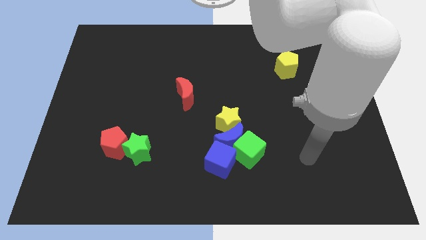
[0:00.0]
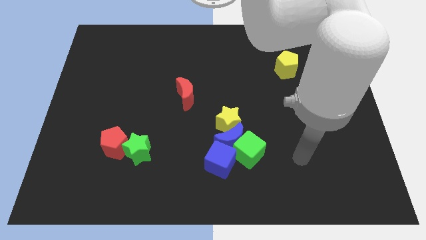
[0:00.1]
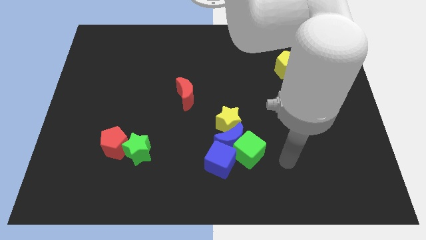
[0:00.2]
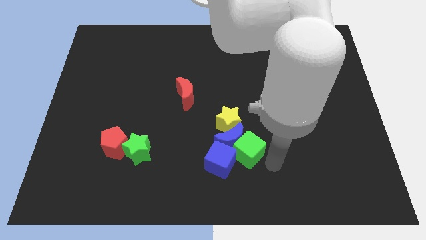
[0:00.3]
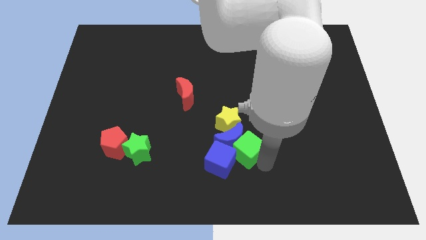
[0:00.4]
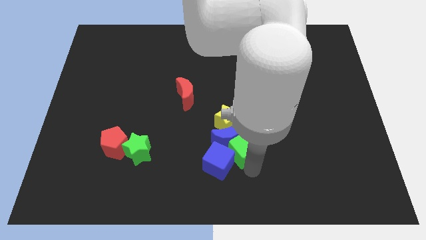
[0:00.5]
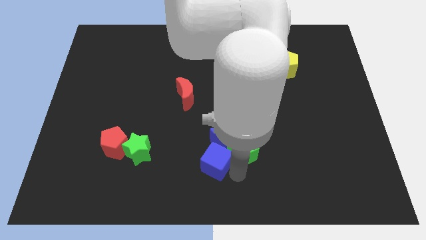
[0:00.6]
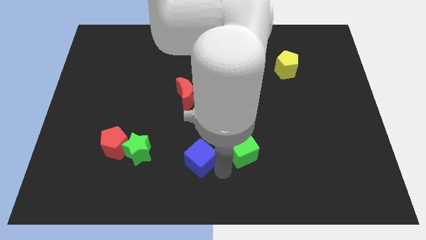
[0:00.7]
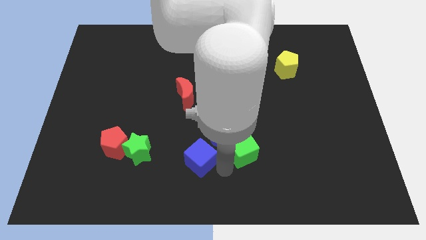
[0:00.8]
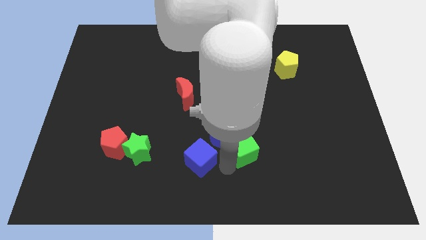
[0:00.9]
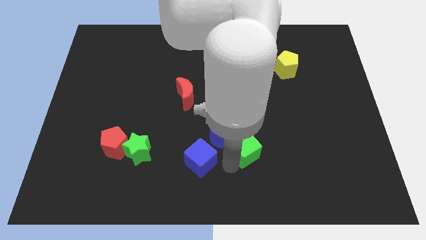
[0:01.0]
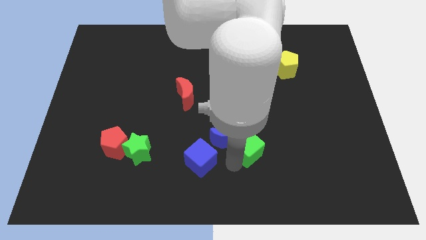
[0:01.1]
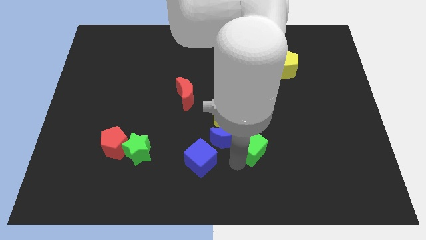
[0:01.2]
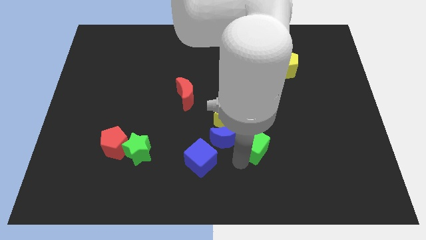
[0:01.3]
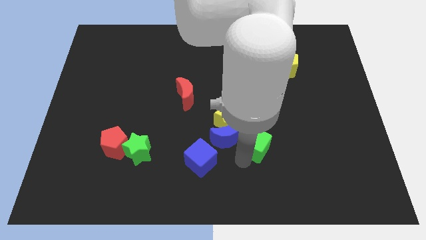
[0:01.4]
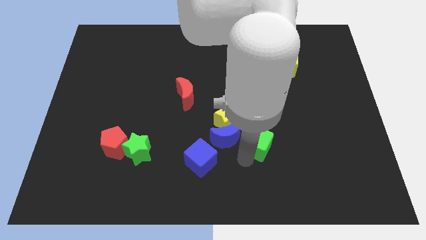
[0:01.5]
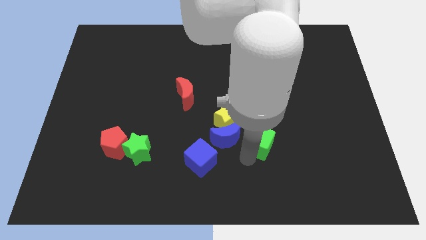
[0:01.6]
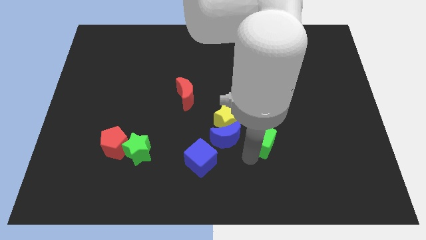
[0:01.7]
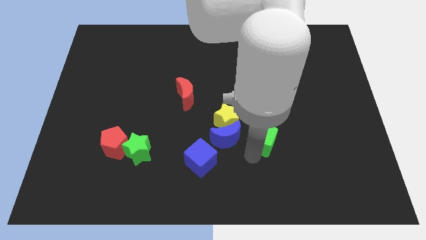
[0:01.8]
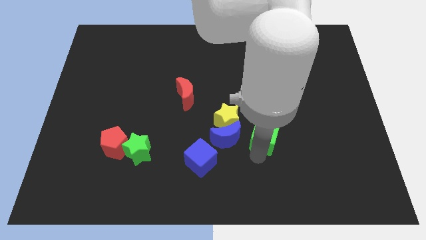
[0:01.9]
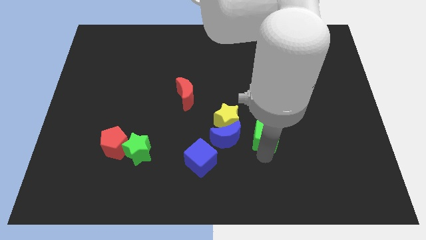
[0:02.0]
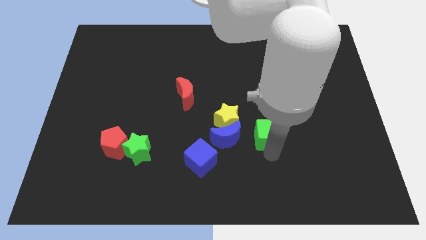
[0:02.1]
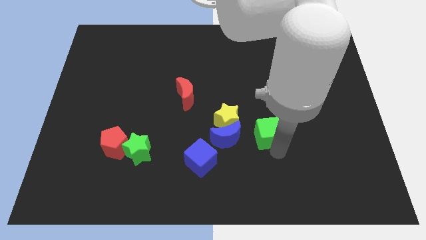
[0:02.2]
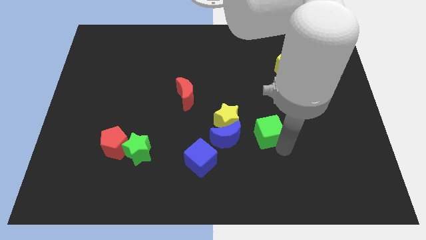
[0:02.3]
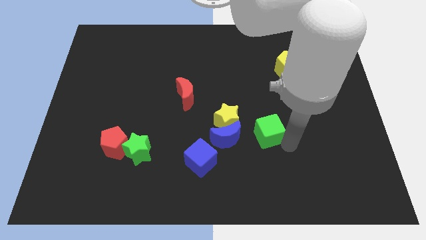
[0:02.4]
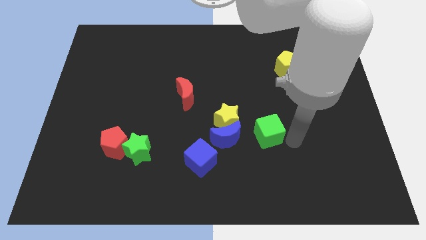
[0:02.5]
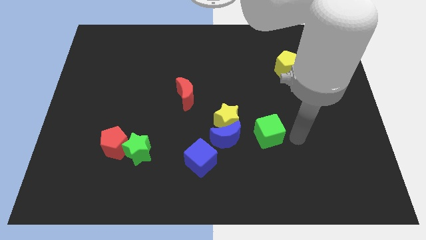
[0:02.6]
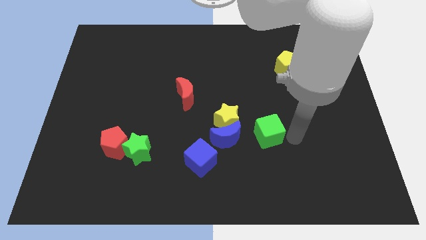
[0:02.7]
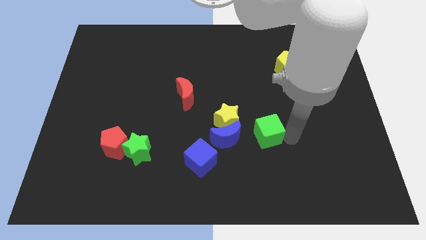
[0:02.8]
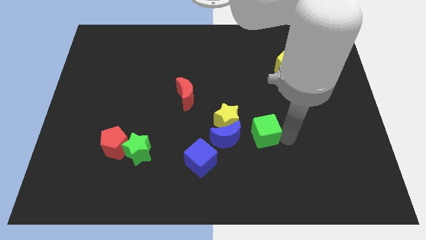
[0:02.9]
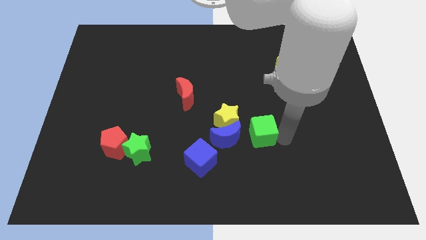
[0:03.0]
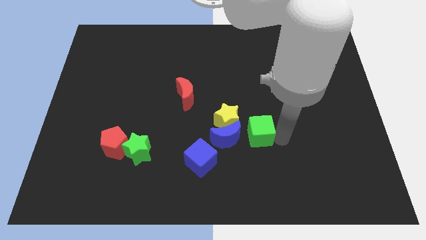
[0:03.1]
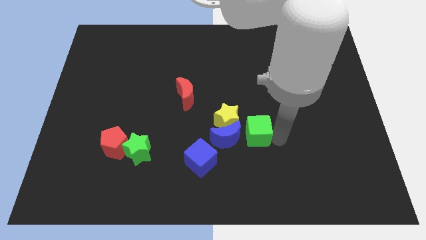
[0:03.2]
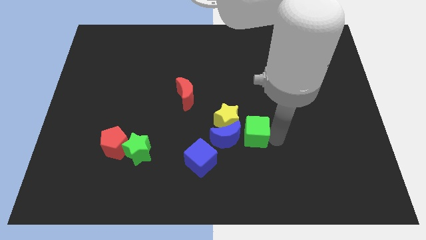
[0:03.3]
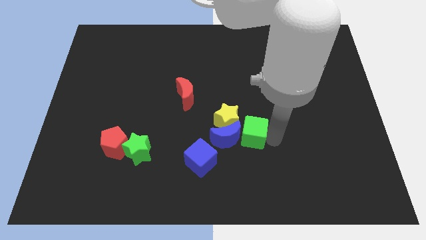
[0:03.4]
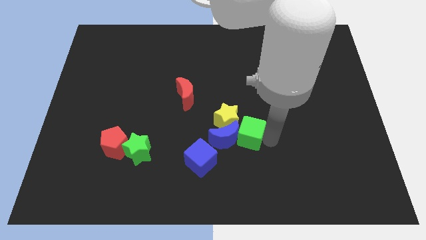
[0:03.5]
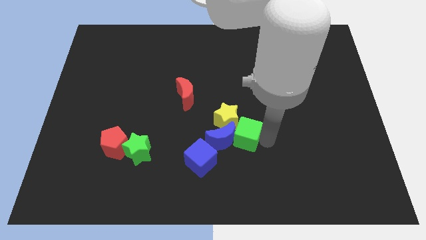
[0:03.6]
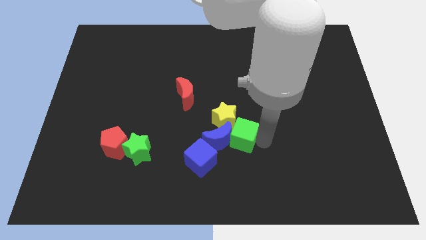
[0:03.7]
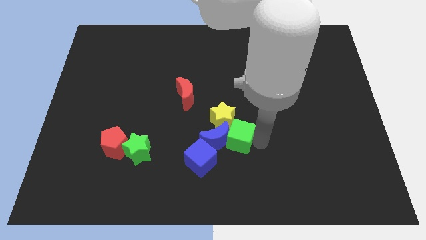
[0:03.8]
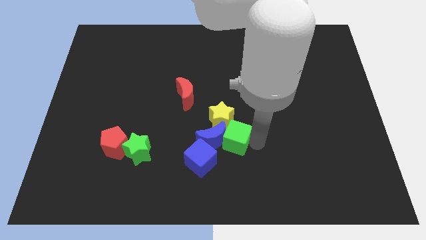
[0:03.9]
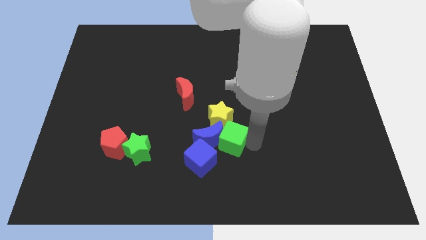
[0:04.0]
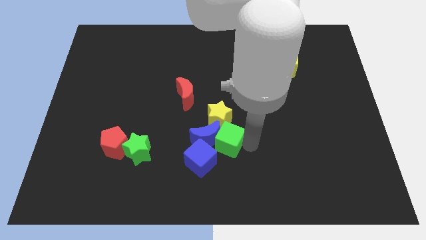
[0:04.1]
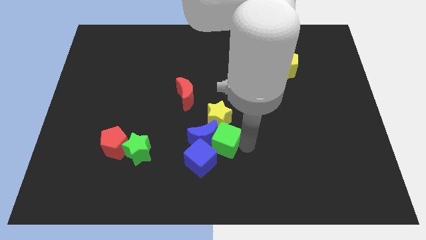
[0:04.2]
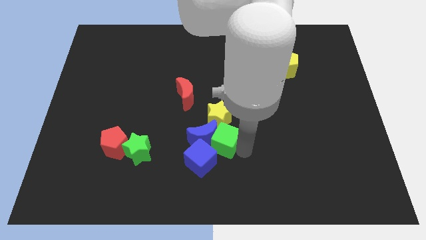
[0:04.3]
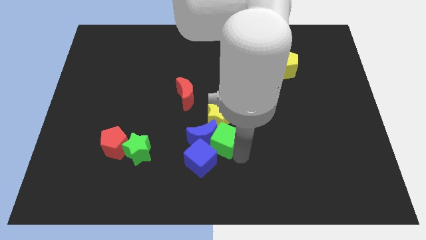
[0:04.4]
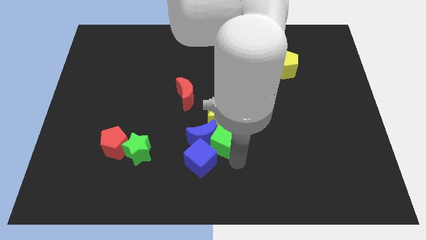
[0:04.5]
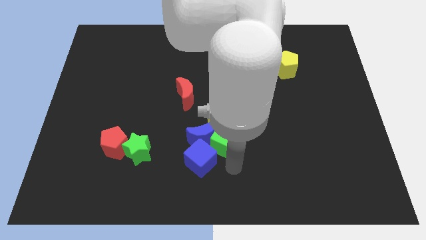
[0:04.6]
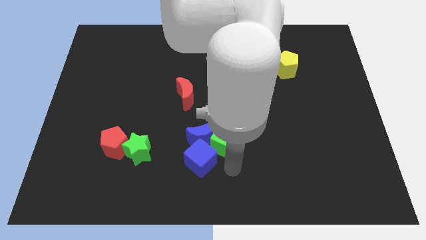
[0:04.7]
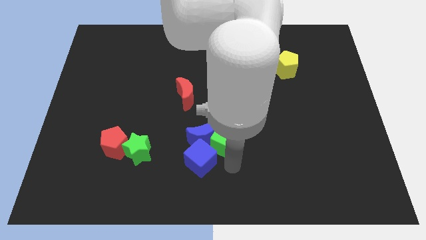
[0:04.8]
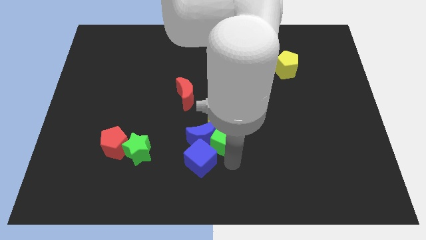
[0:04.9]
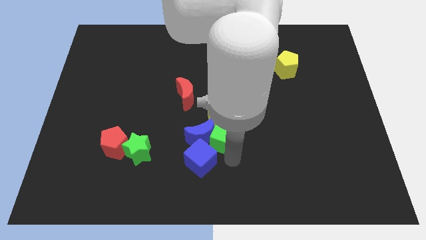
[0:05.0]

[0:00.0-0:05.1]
move the green cube close to the yellow star

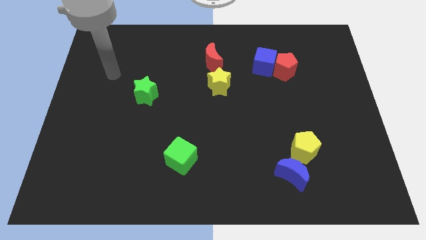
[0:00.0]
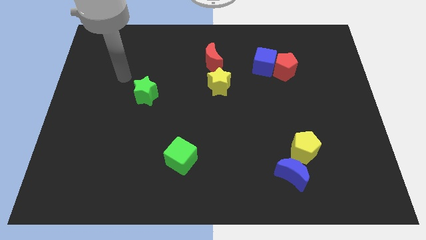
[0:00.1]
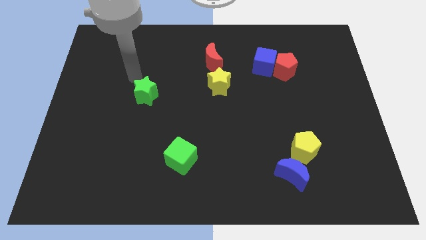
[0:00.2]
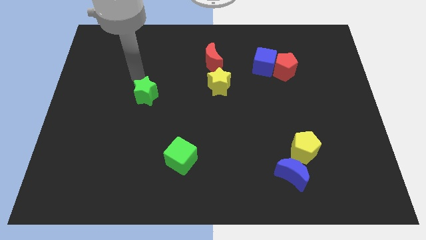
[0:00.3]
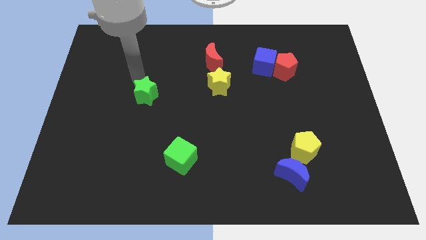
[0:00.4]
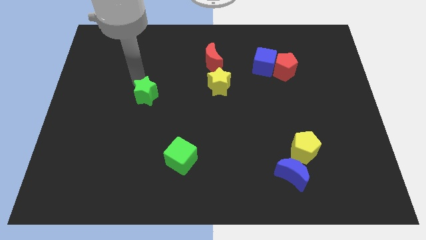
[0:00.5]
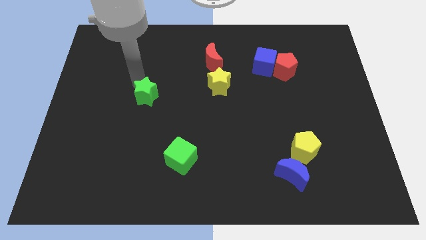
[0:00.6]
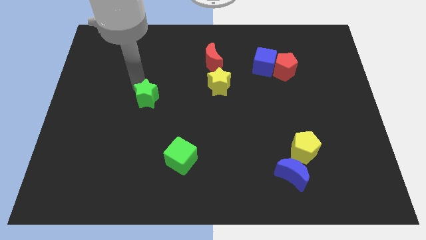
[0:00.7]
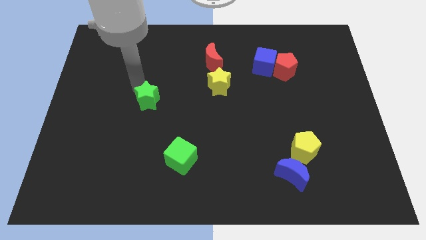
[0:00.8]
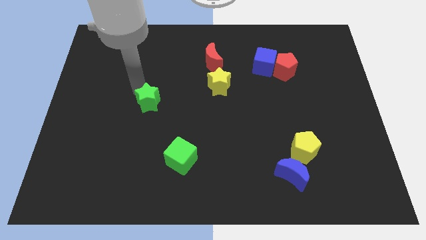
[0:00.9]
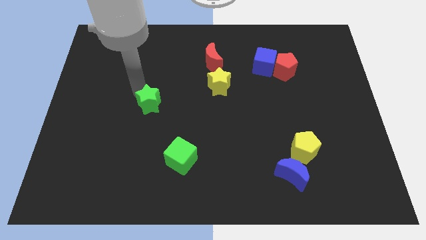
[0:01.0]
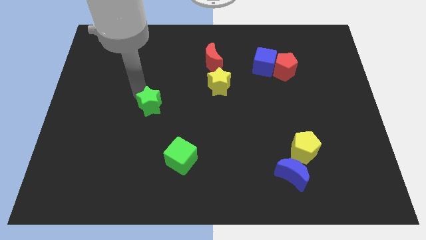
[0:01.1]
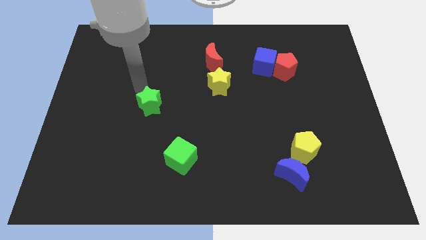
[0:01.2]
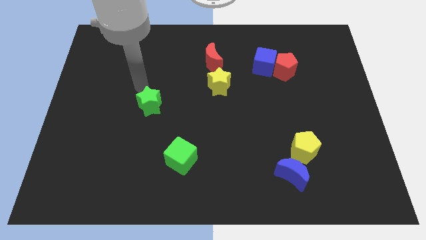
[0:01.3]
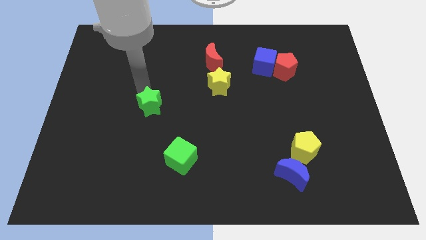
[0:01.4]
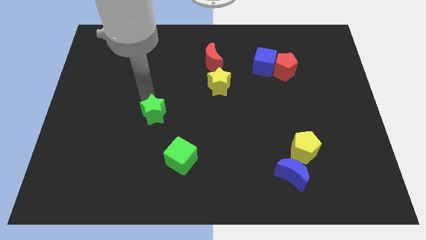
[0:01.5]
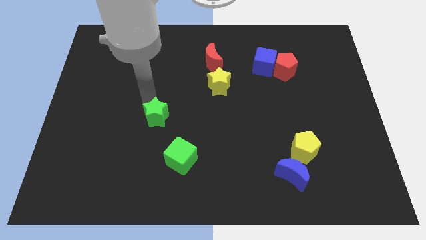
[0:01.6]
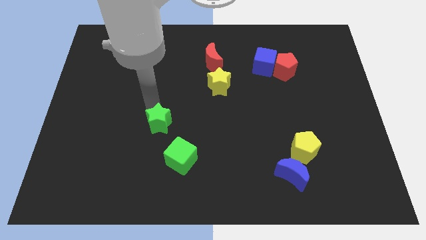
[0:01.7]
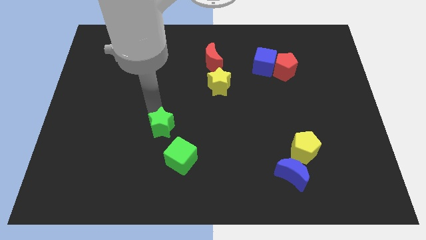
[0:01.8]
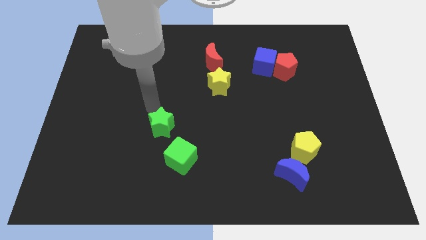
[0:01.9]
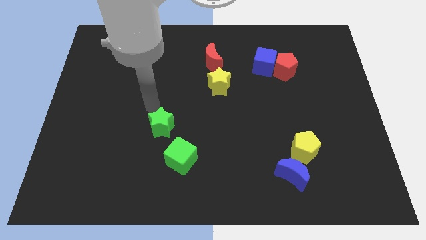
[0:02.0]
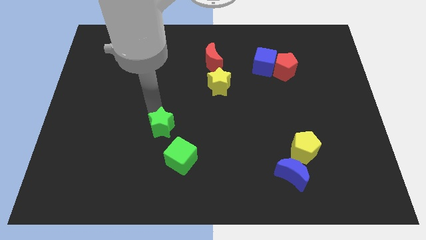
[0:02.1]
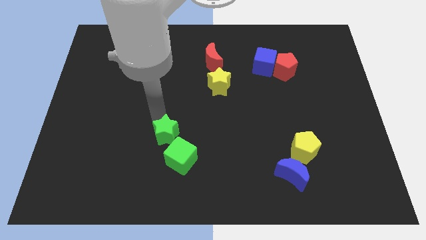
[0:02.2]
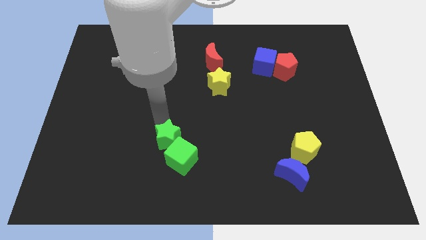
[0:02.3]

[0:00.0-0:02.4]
slide the green star to the green cube

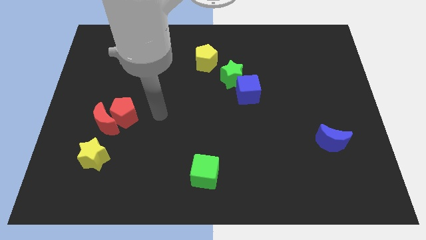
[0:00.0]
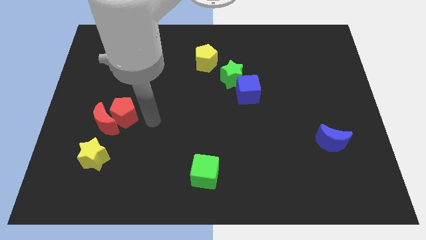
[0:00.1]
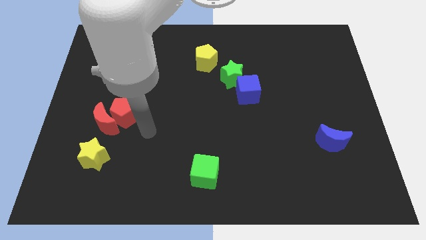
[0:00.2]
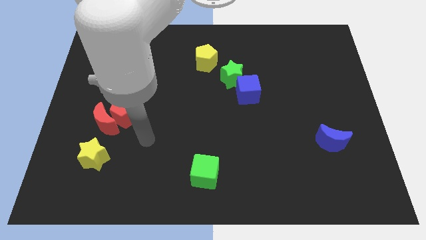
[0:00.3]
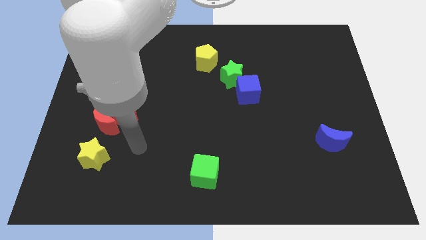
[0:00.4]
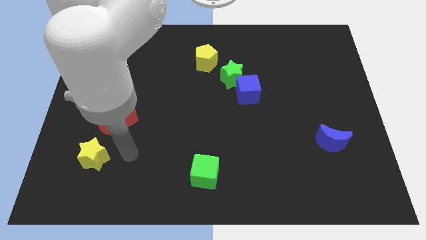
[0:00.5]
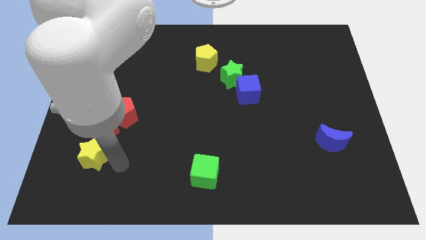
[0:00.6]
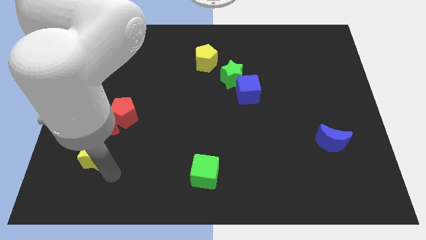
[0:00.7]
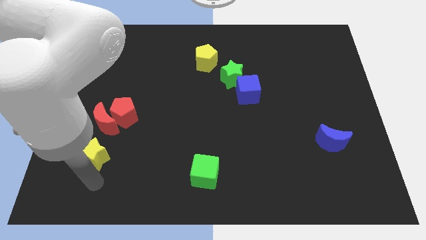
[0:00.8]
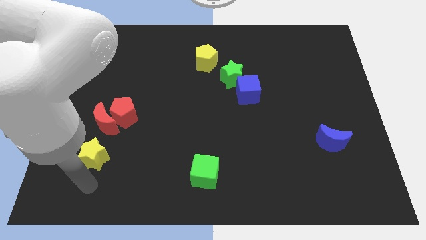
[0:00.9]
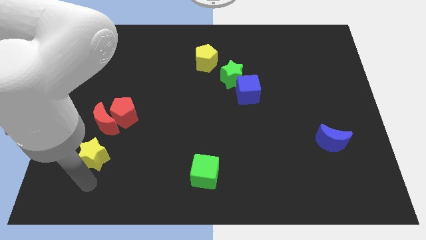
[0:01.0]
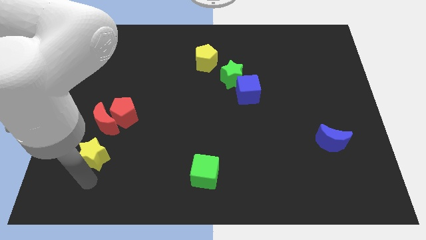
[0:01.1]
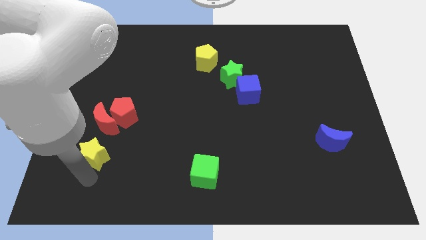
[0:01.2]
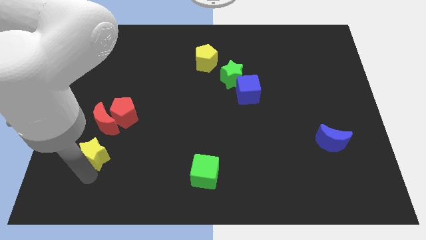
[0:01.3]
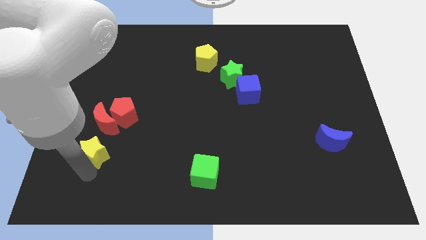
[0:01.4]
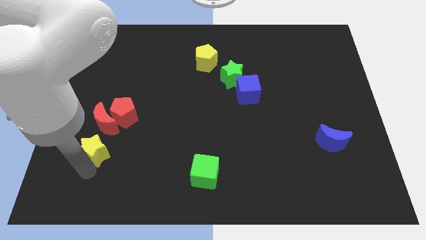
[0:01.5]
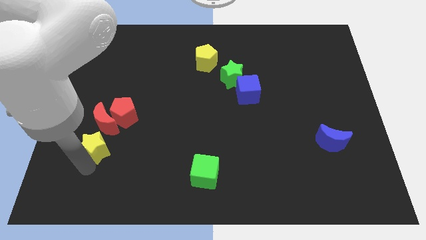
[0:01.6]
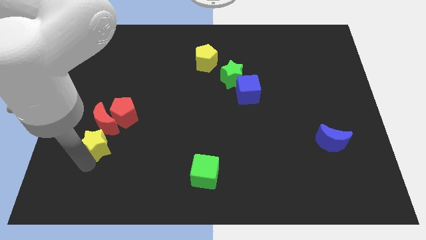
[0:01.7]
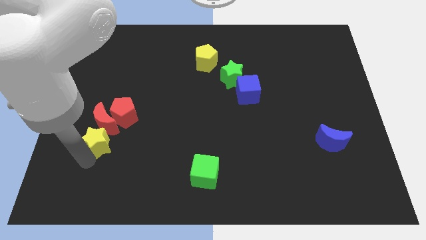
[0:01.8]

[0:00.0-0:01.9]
push the yellow star close to the red moon
